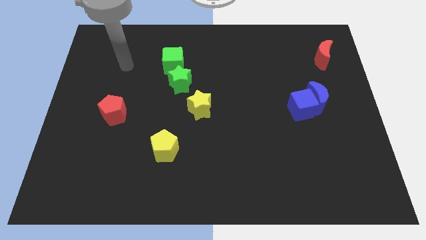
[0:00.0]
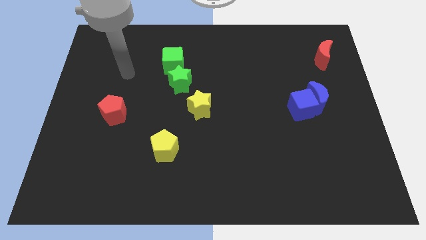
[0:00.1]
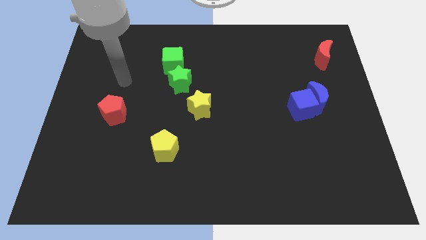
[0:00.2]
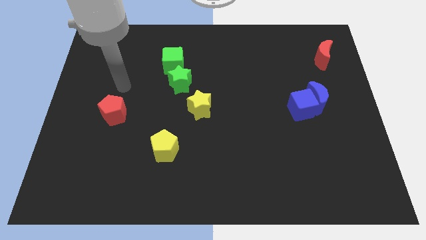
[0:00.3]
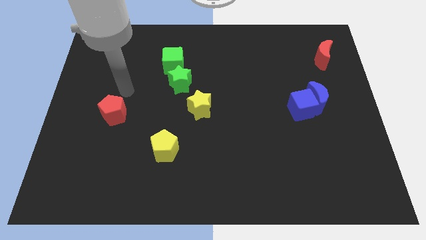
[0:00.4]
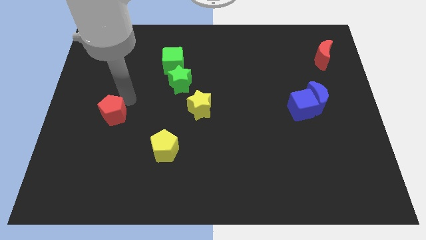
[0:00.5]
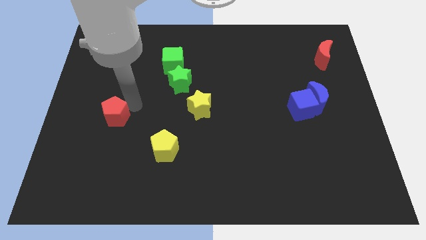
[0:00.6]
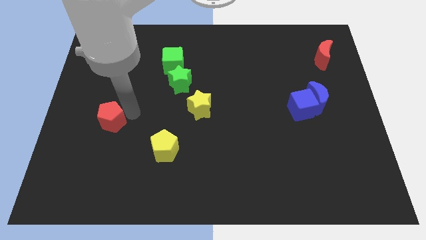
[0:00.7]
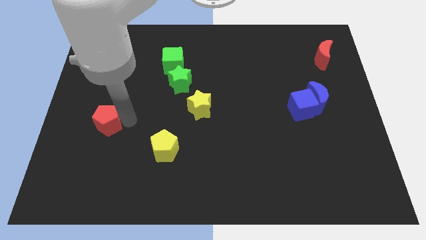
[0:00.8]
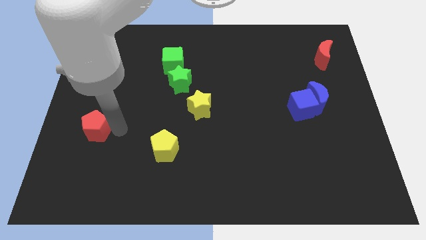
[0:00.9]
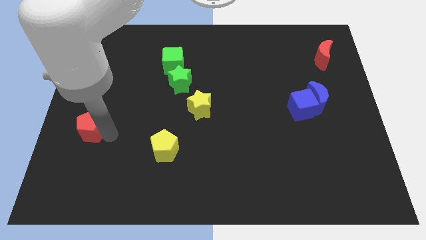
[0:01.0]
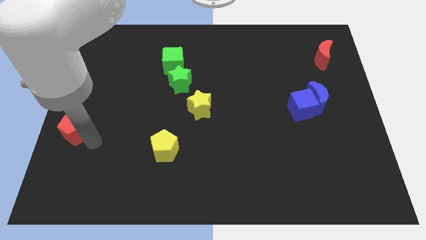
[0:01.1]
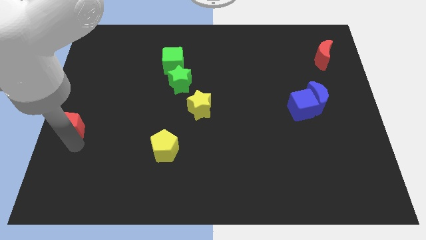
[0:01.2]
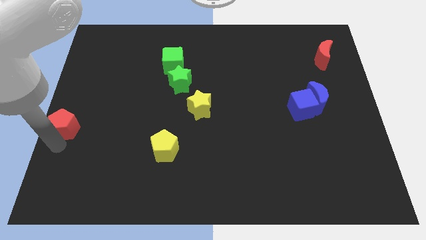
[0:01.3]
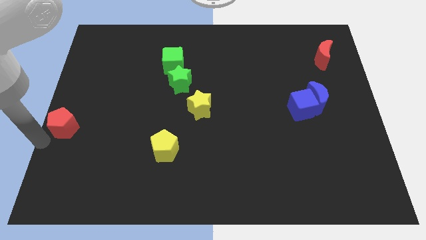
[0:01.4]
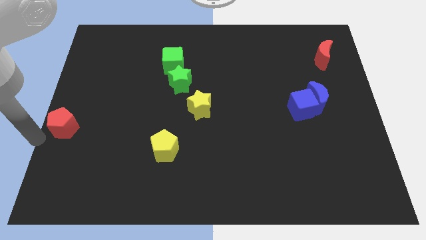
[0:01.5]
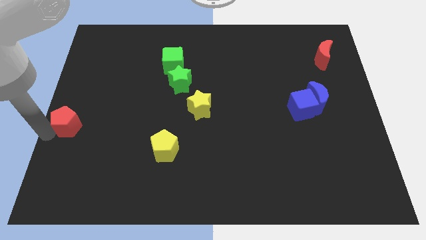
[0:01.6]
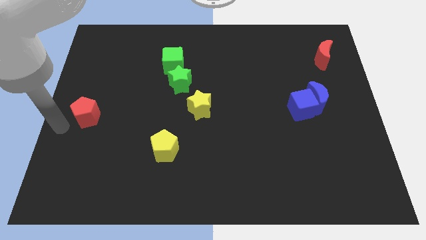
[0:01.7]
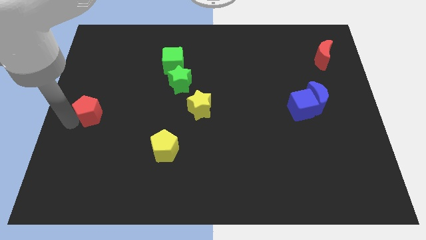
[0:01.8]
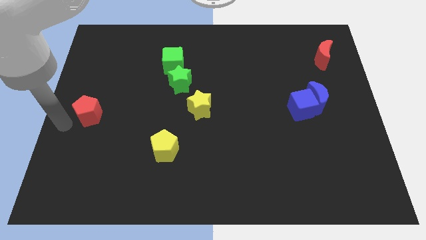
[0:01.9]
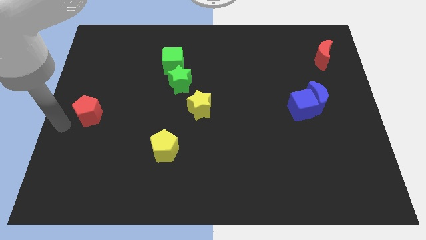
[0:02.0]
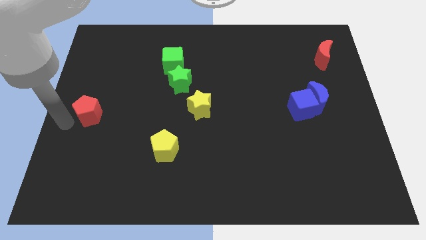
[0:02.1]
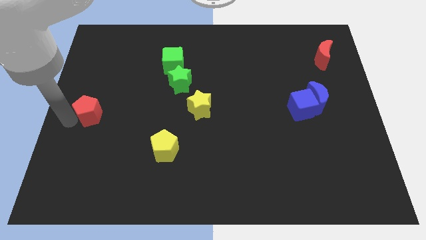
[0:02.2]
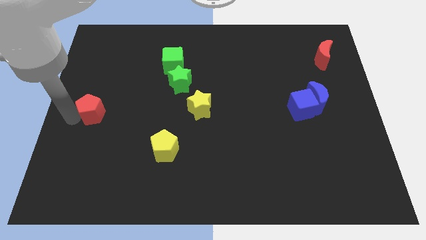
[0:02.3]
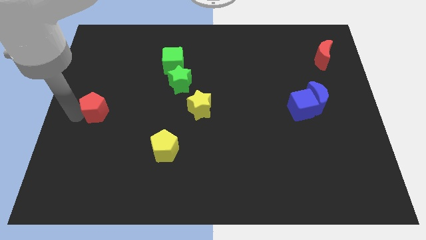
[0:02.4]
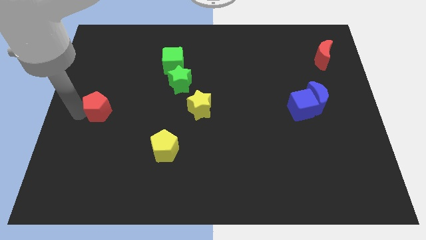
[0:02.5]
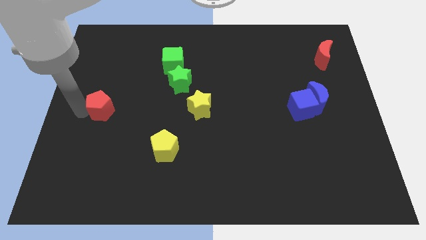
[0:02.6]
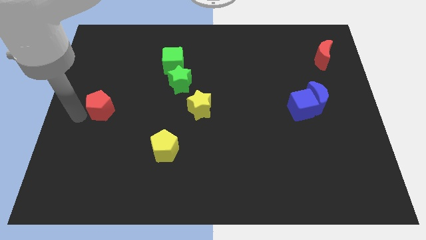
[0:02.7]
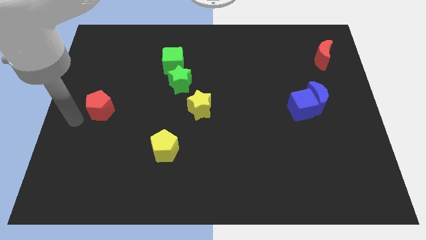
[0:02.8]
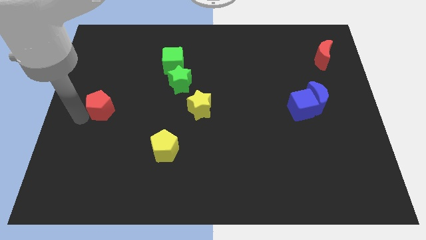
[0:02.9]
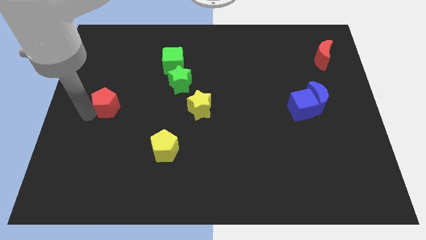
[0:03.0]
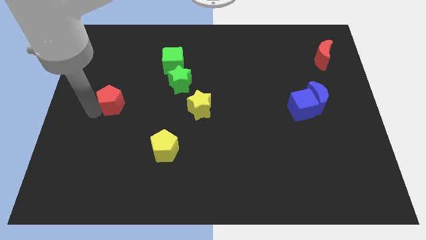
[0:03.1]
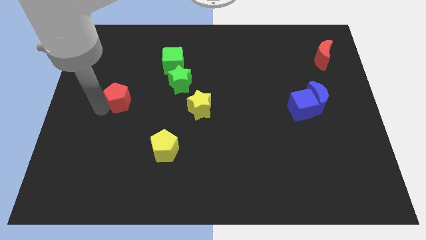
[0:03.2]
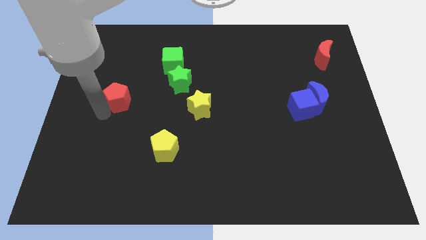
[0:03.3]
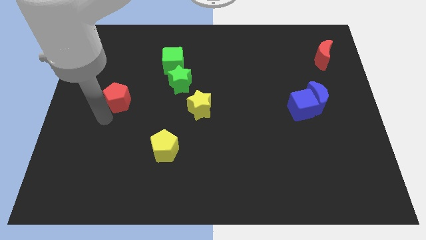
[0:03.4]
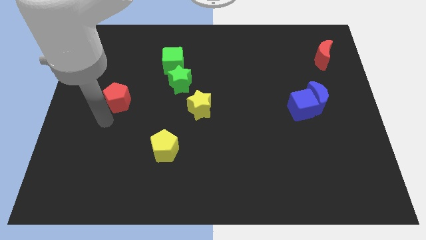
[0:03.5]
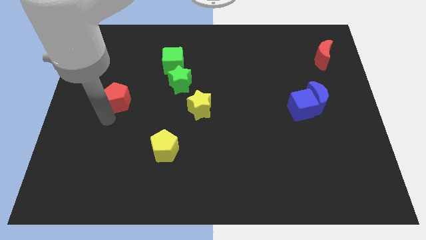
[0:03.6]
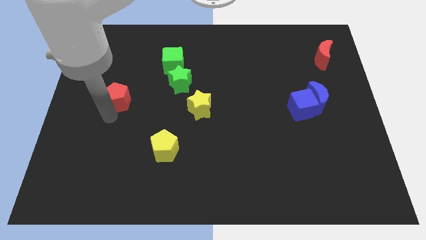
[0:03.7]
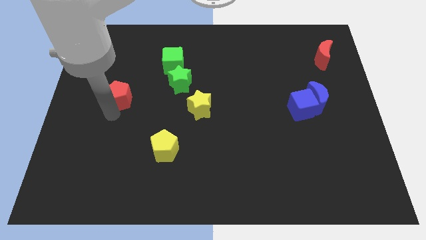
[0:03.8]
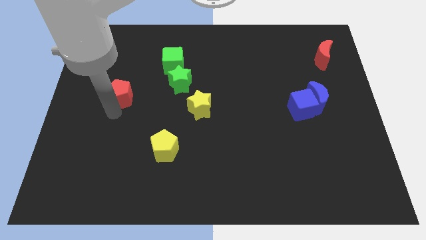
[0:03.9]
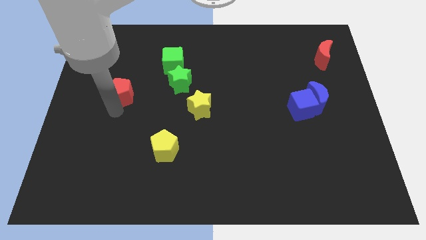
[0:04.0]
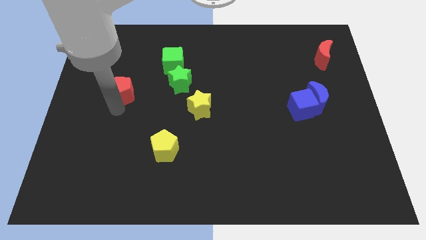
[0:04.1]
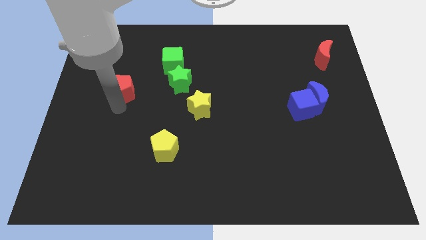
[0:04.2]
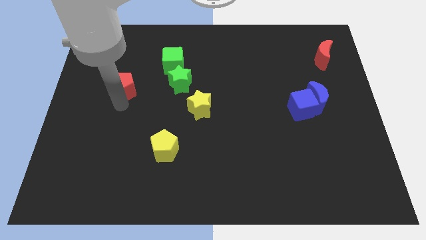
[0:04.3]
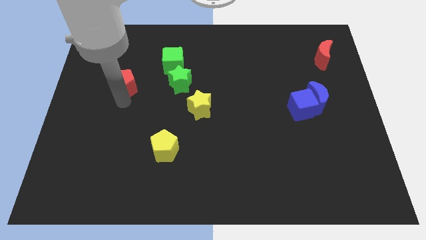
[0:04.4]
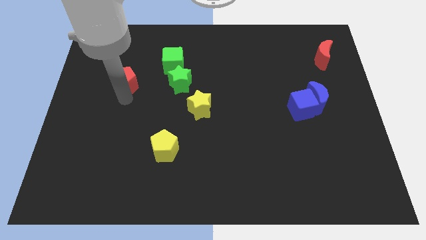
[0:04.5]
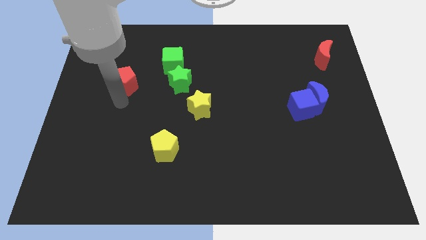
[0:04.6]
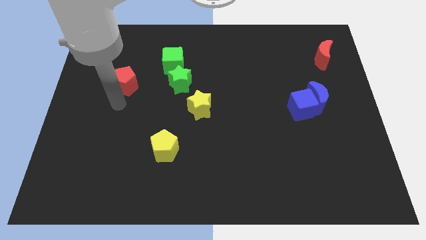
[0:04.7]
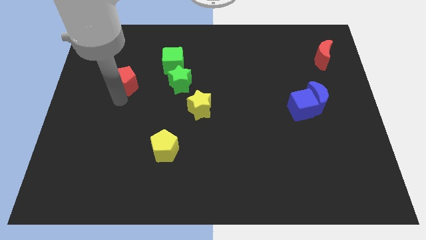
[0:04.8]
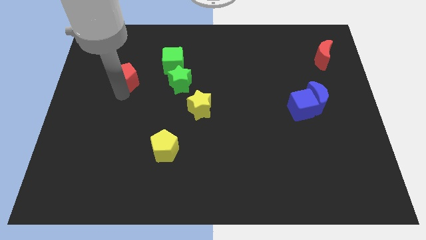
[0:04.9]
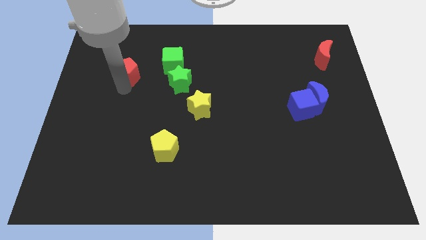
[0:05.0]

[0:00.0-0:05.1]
slide the red pentagon just left of the green cube

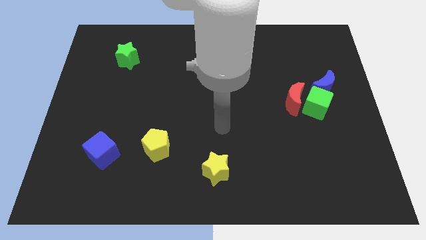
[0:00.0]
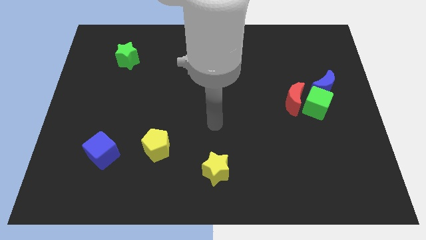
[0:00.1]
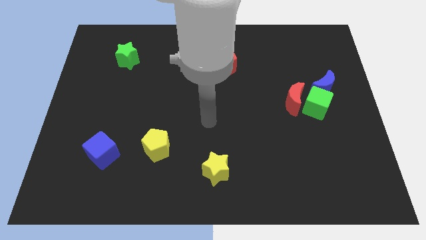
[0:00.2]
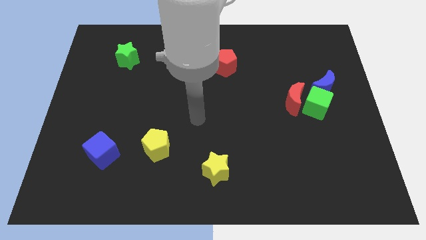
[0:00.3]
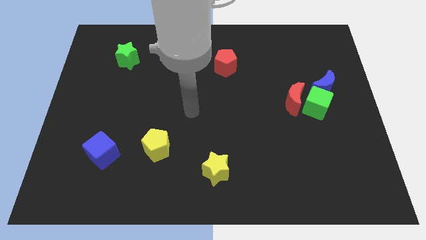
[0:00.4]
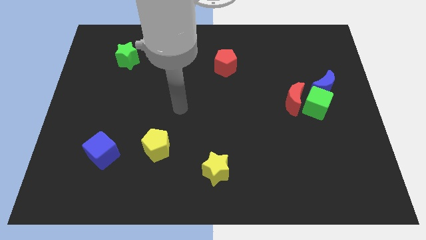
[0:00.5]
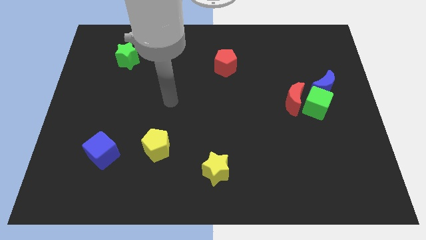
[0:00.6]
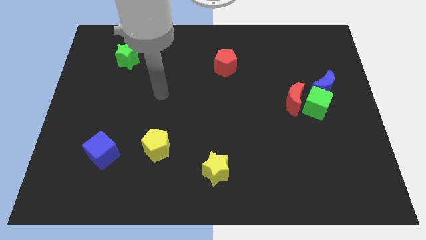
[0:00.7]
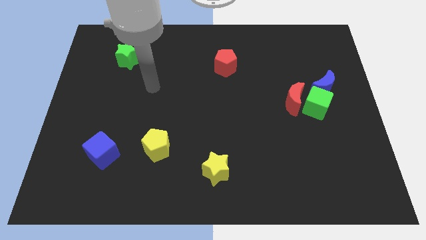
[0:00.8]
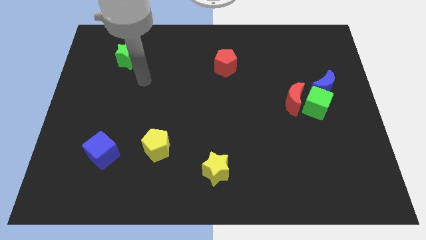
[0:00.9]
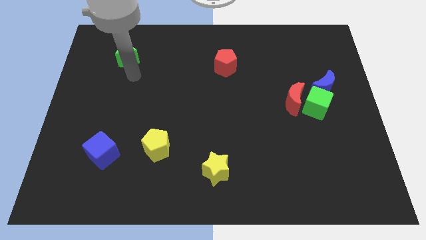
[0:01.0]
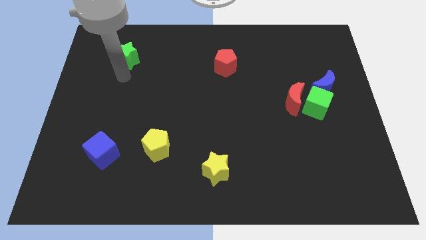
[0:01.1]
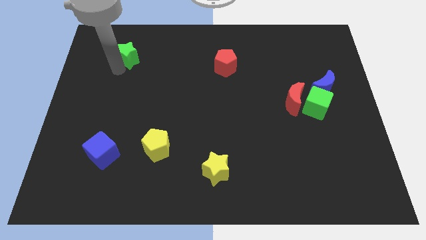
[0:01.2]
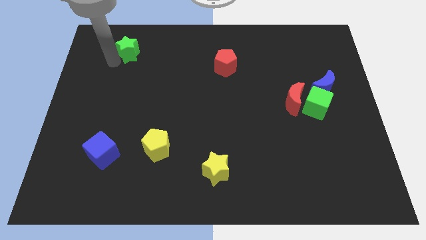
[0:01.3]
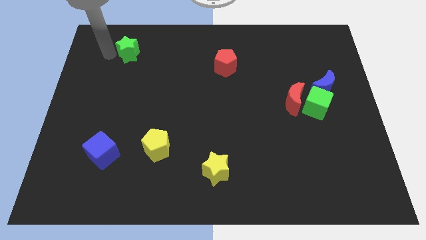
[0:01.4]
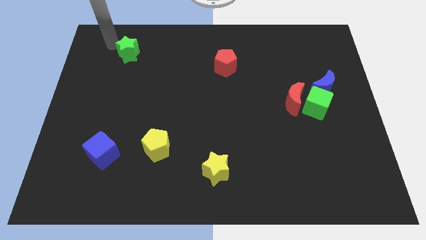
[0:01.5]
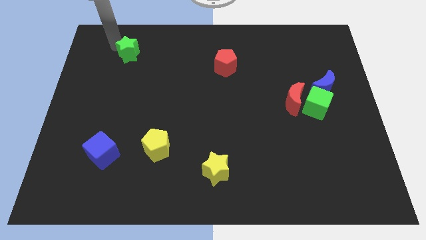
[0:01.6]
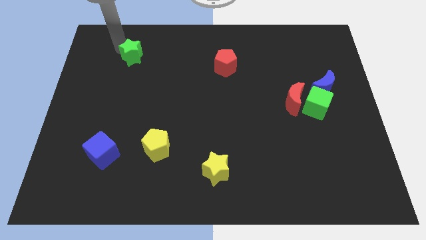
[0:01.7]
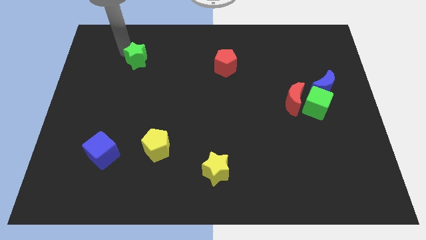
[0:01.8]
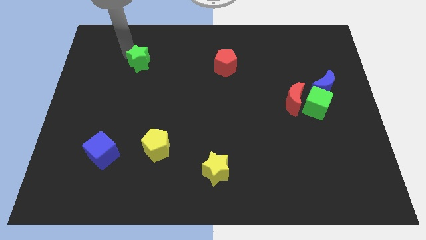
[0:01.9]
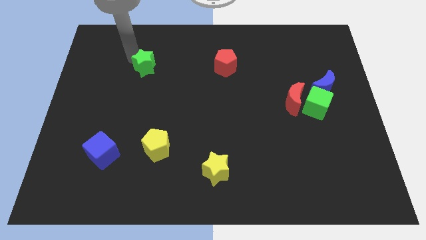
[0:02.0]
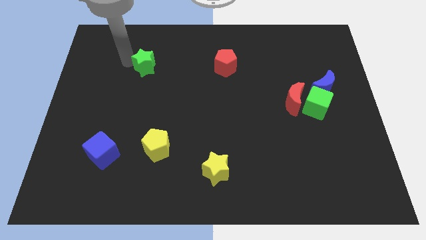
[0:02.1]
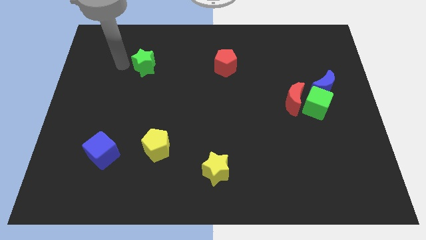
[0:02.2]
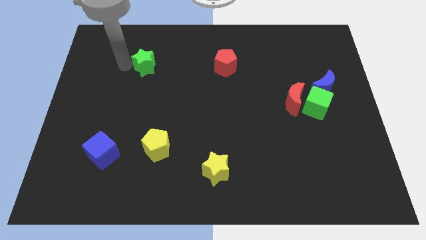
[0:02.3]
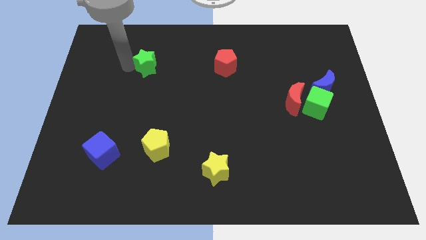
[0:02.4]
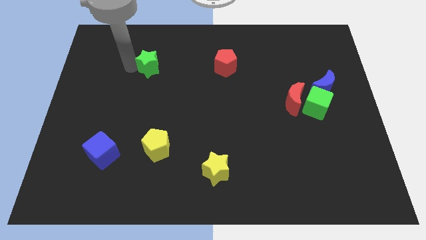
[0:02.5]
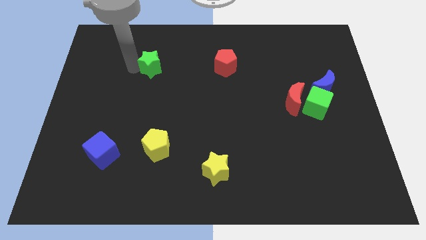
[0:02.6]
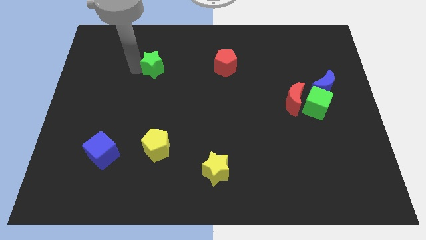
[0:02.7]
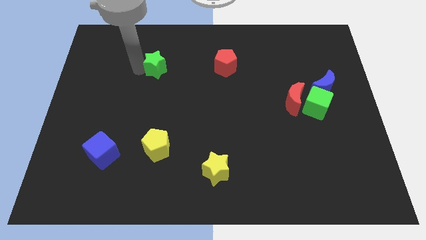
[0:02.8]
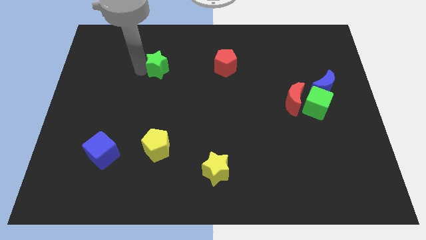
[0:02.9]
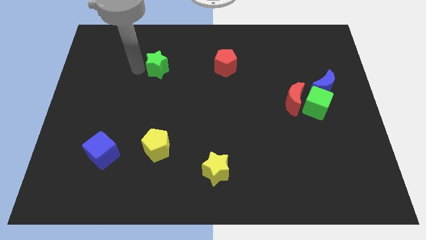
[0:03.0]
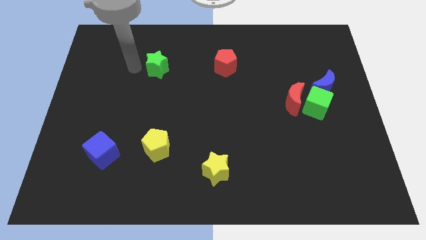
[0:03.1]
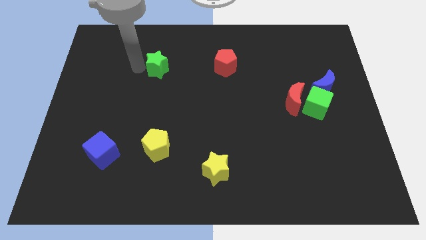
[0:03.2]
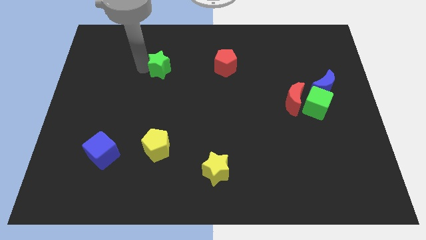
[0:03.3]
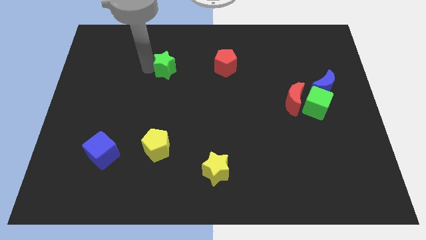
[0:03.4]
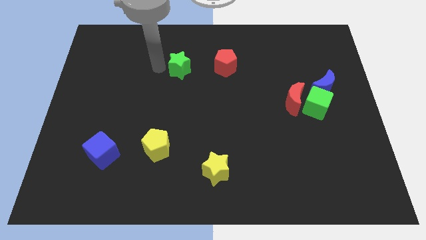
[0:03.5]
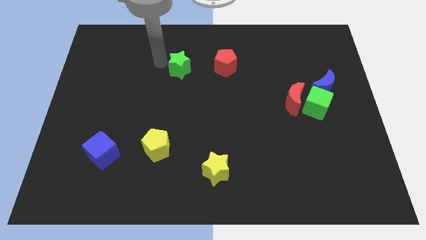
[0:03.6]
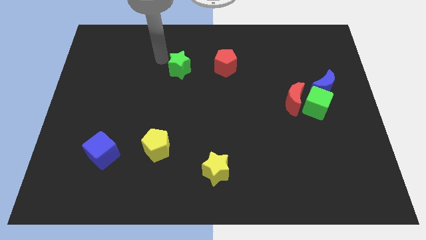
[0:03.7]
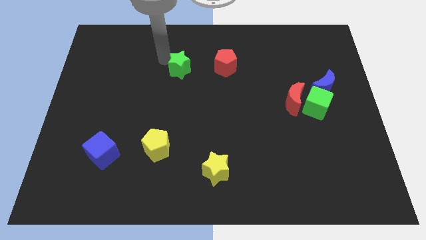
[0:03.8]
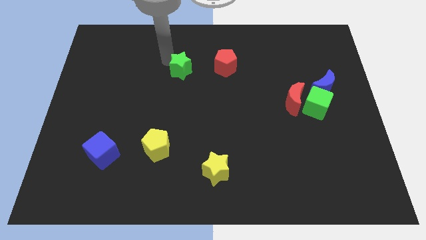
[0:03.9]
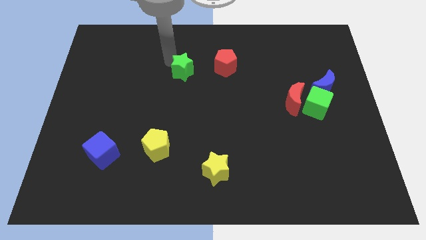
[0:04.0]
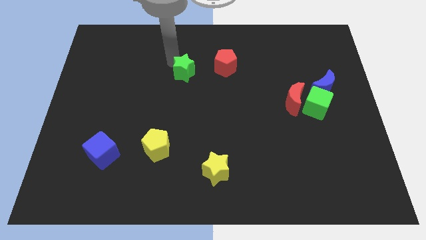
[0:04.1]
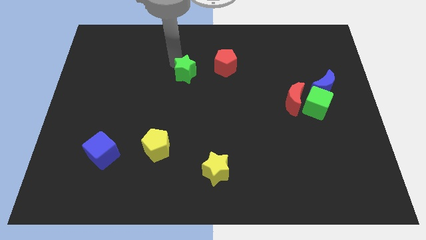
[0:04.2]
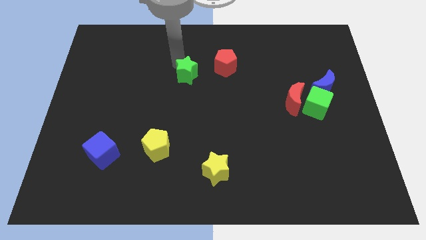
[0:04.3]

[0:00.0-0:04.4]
move the green star to the bottom left side of the red pentagon
